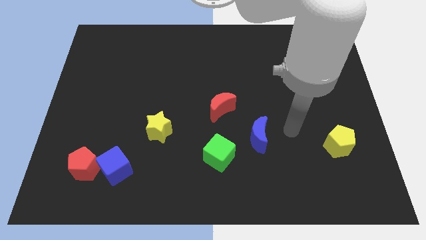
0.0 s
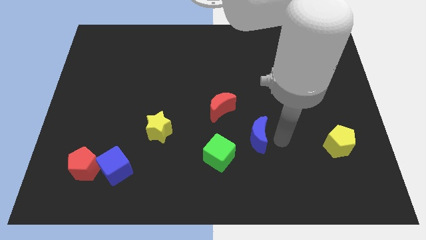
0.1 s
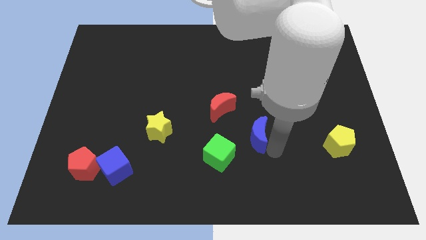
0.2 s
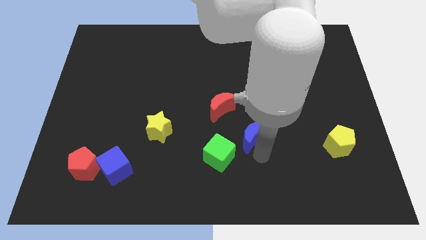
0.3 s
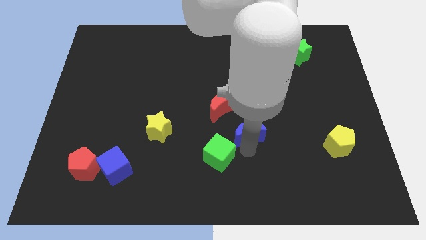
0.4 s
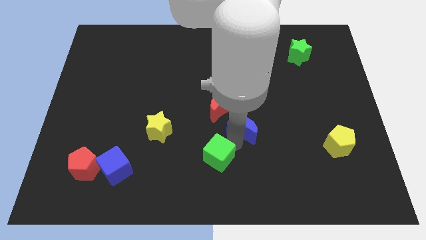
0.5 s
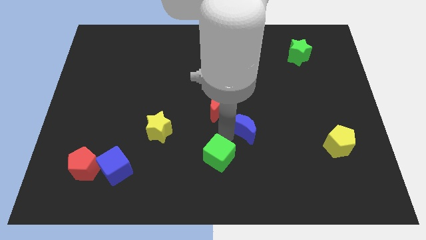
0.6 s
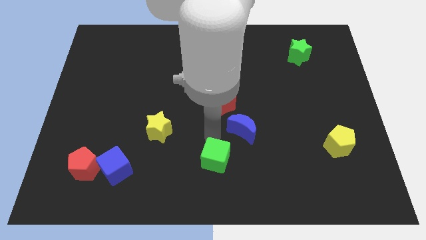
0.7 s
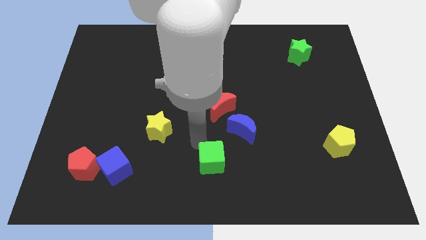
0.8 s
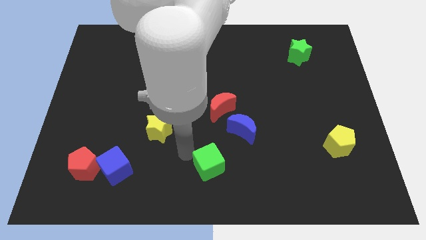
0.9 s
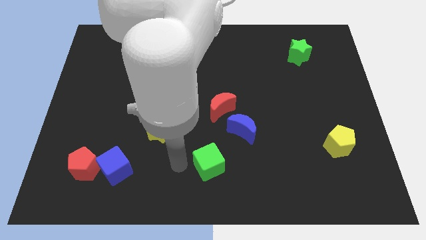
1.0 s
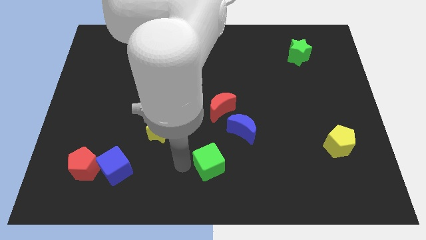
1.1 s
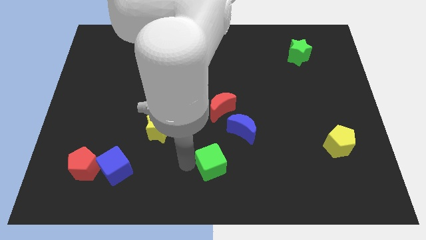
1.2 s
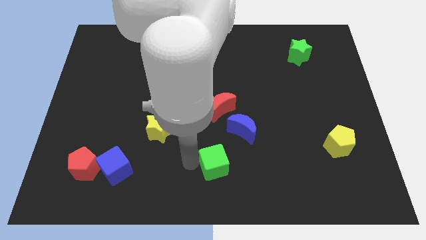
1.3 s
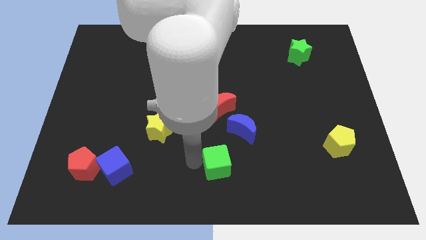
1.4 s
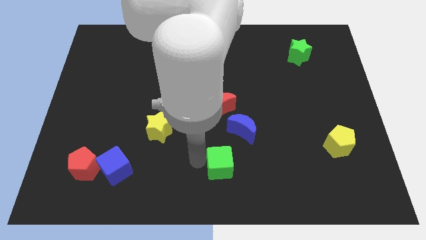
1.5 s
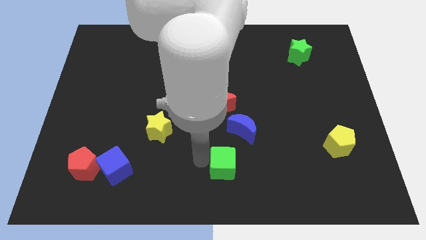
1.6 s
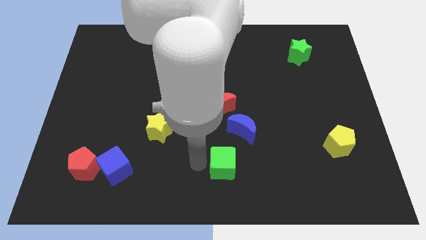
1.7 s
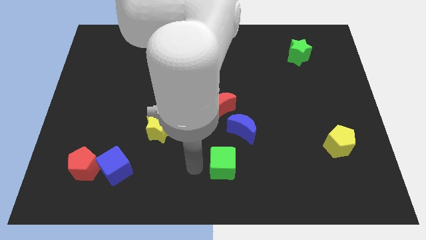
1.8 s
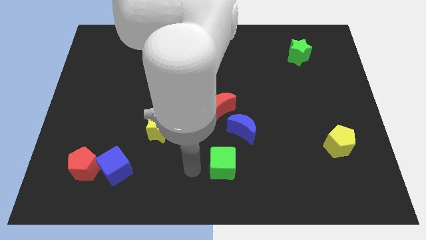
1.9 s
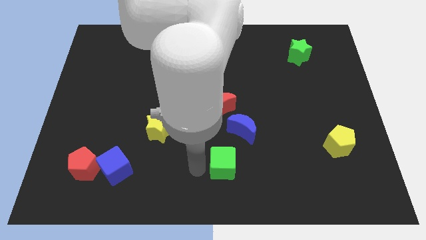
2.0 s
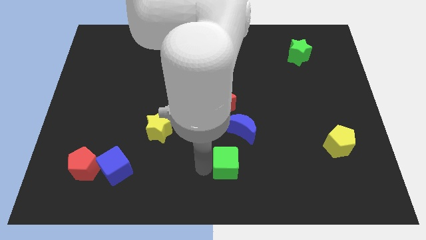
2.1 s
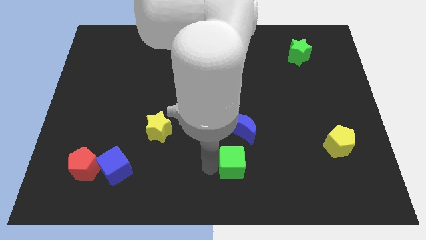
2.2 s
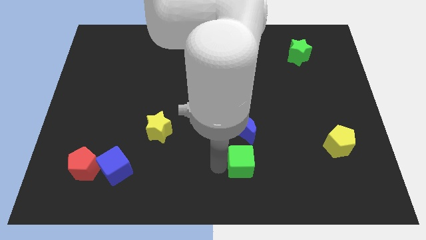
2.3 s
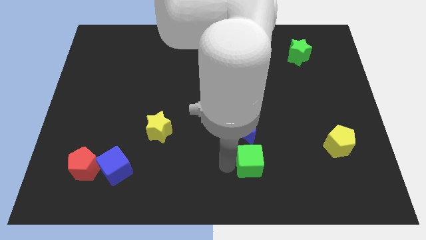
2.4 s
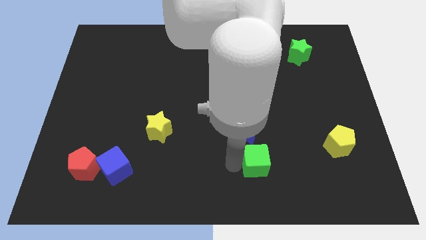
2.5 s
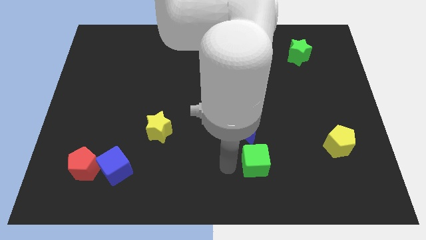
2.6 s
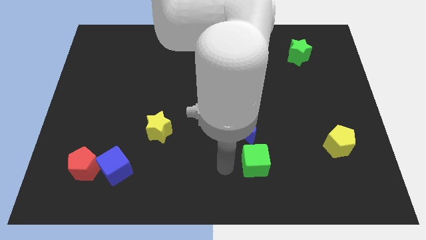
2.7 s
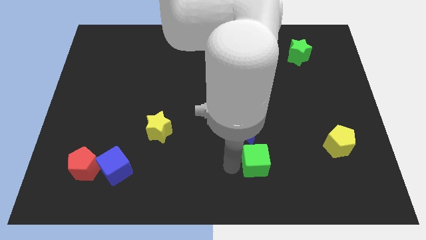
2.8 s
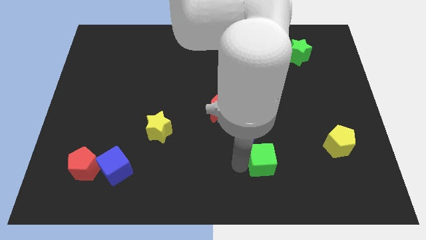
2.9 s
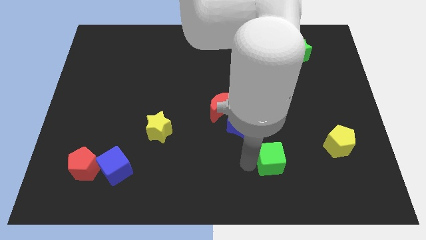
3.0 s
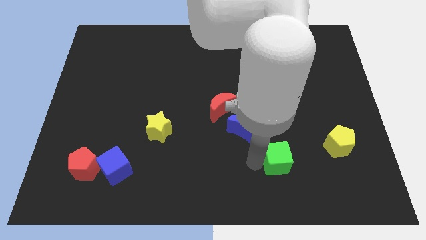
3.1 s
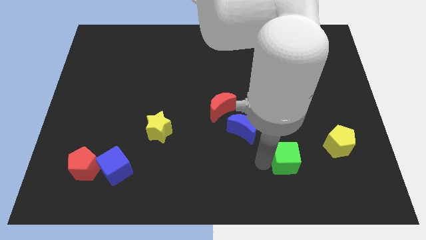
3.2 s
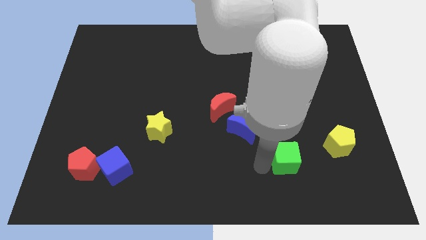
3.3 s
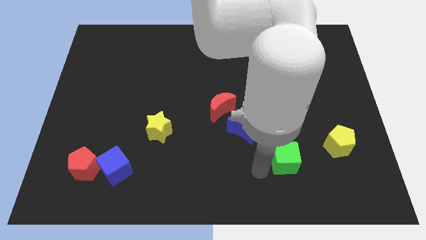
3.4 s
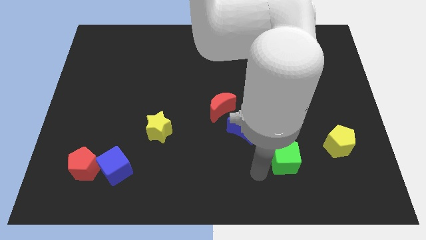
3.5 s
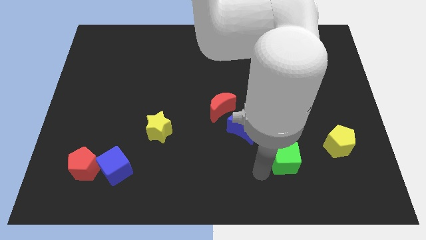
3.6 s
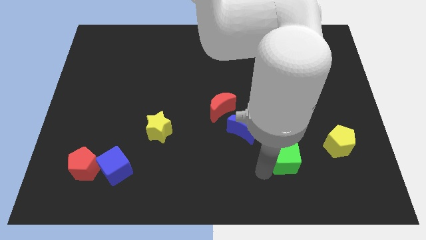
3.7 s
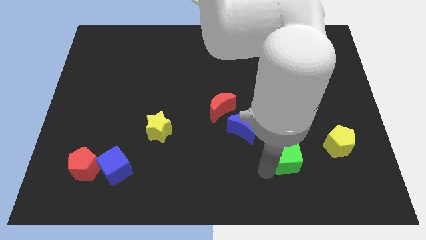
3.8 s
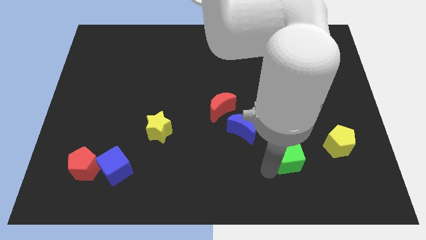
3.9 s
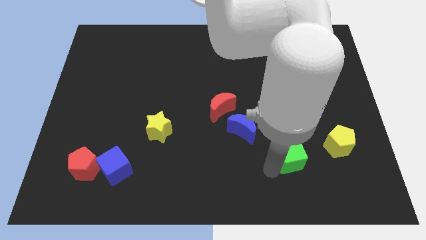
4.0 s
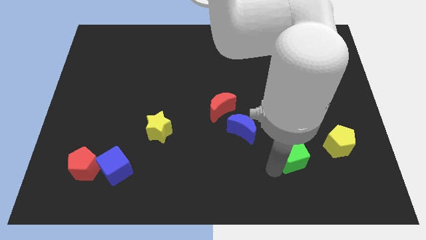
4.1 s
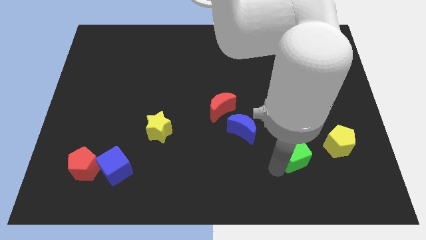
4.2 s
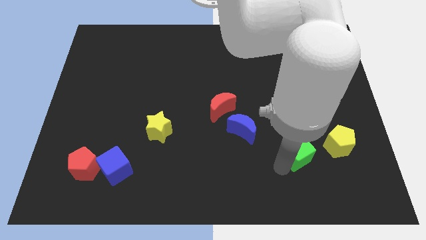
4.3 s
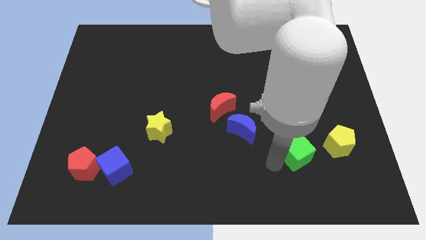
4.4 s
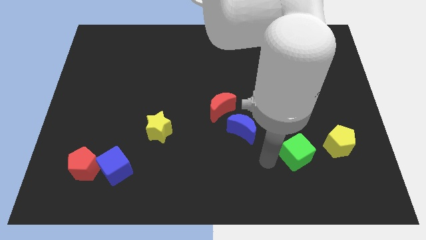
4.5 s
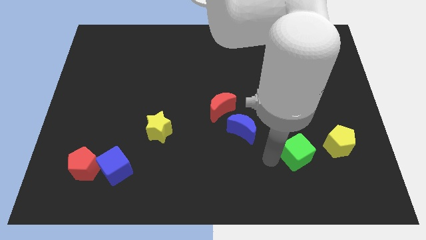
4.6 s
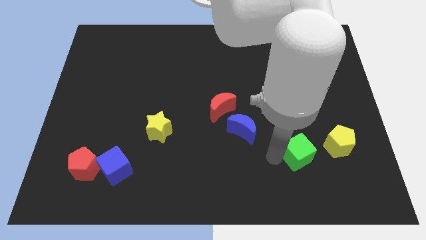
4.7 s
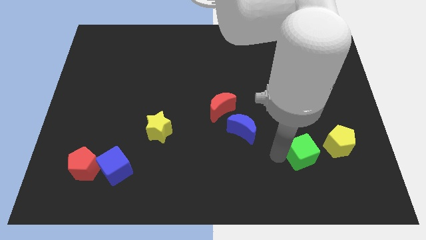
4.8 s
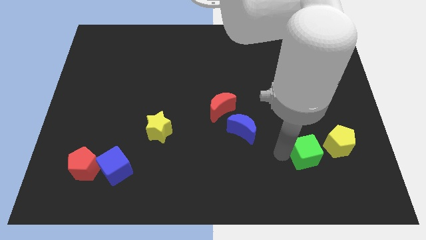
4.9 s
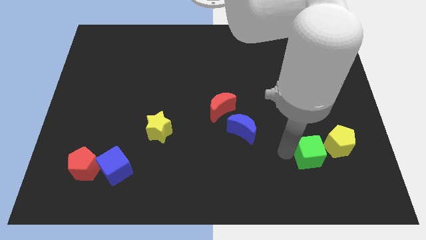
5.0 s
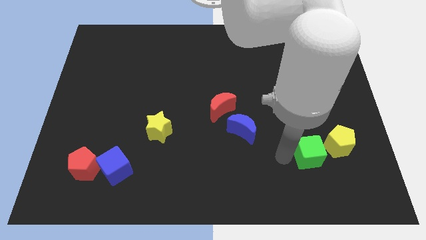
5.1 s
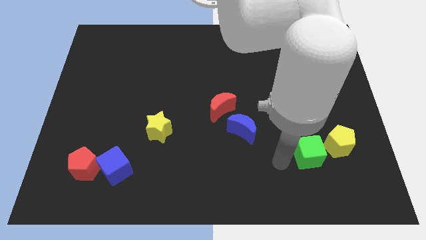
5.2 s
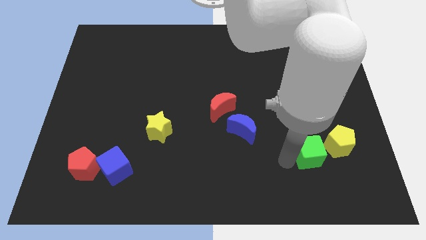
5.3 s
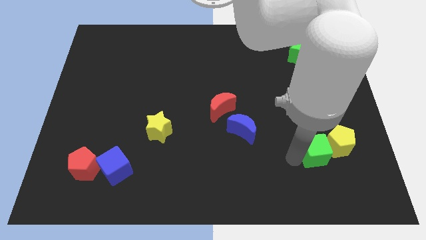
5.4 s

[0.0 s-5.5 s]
push the green cube towards the yellow pentagon

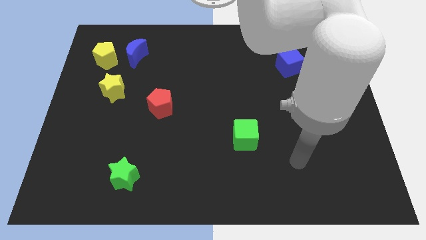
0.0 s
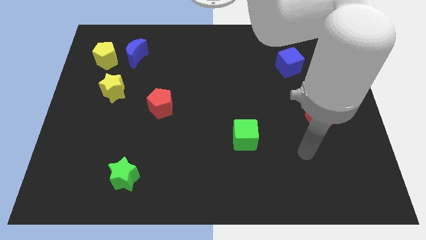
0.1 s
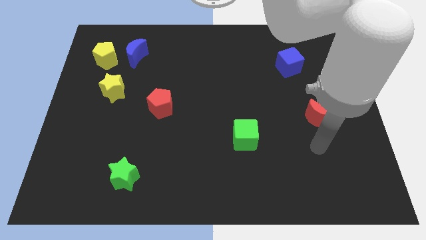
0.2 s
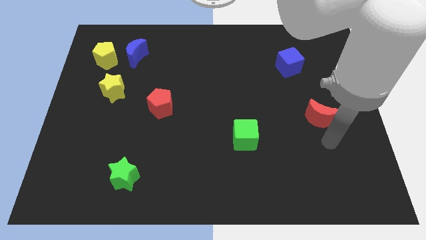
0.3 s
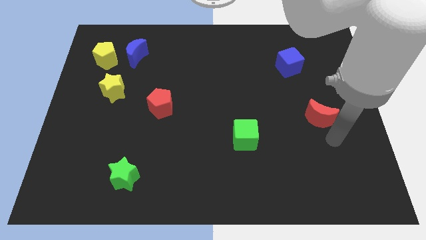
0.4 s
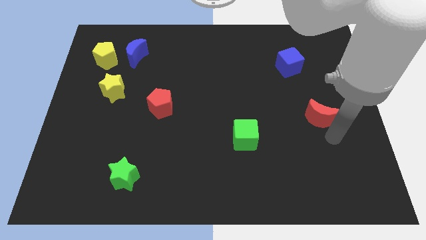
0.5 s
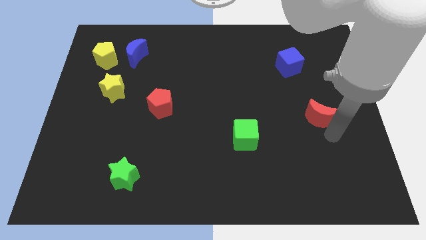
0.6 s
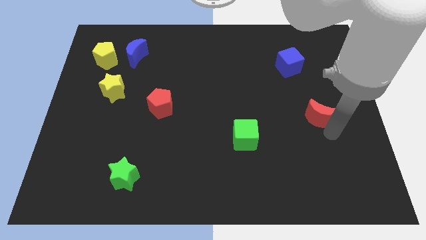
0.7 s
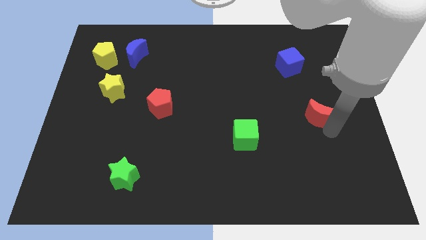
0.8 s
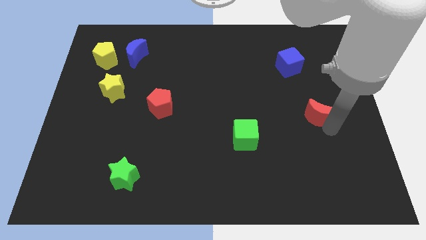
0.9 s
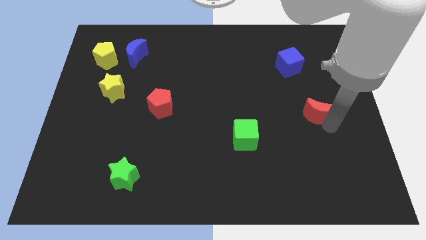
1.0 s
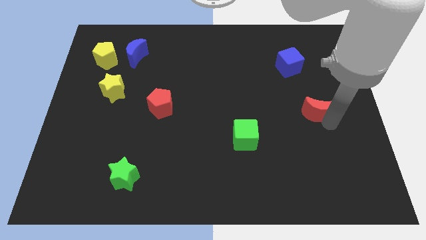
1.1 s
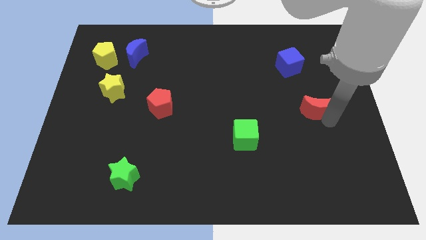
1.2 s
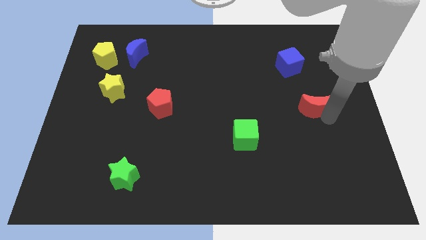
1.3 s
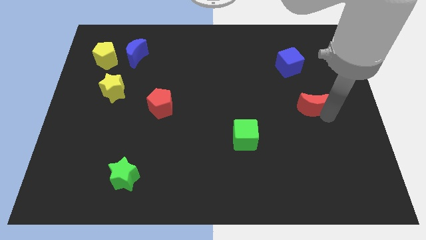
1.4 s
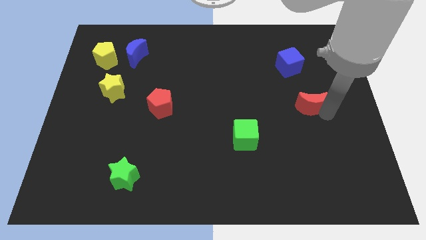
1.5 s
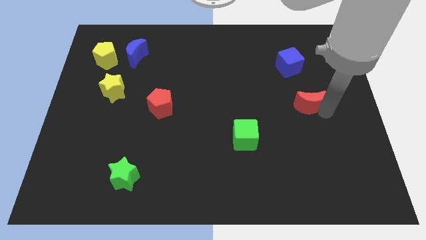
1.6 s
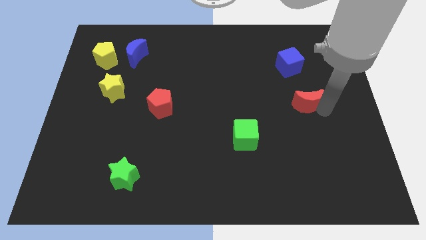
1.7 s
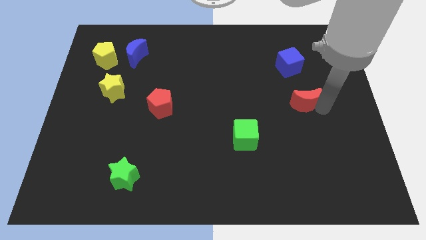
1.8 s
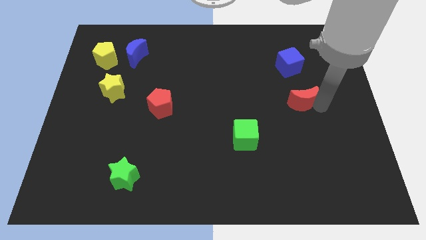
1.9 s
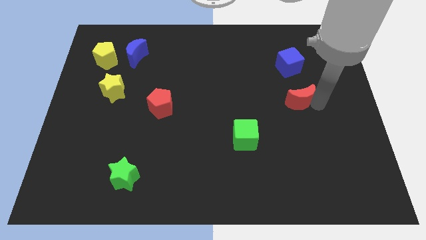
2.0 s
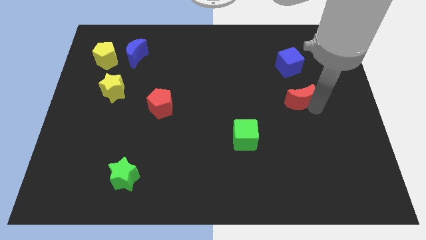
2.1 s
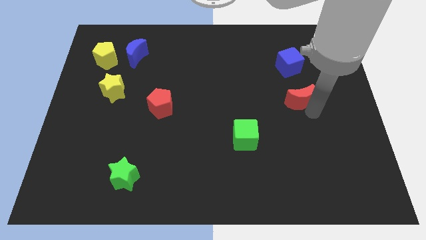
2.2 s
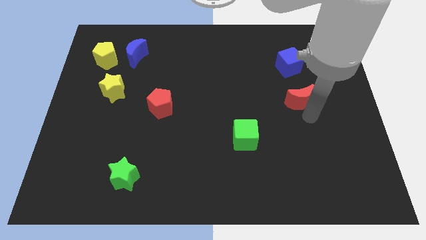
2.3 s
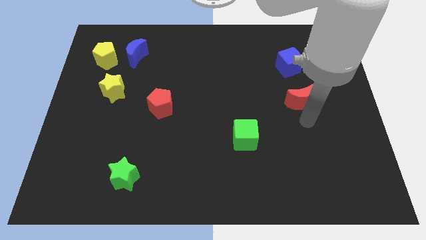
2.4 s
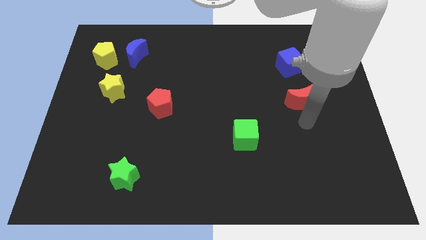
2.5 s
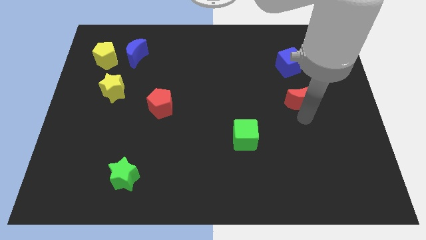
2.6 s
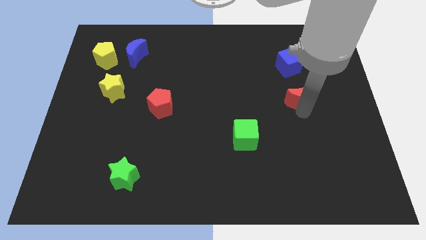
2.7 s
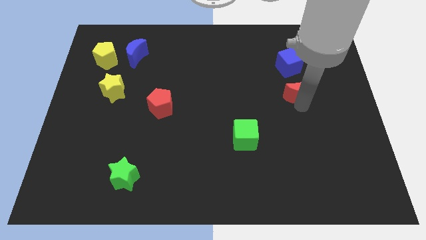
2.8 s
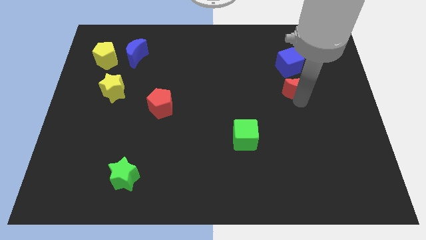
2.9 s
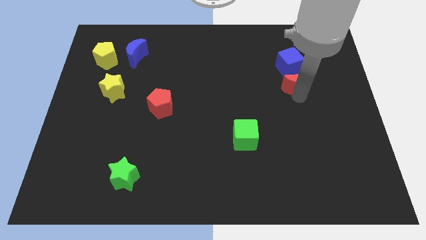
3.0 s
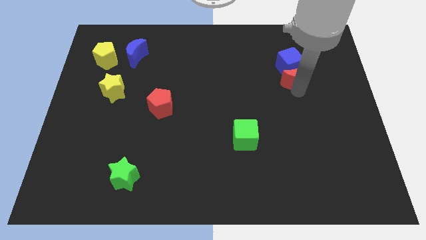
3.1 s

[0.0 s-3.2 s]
push the red moon towards the blue cube
